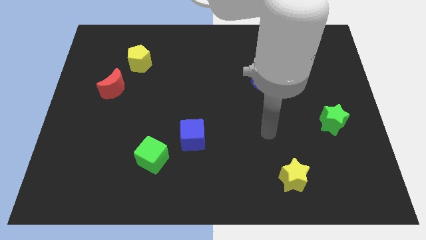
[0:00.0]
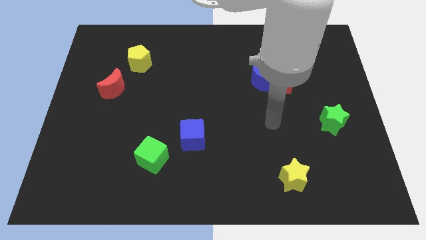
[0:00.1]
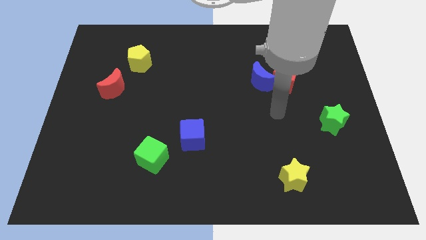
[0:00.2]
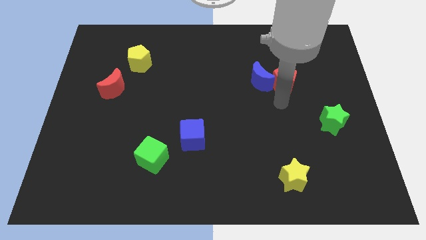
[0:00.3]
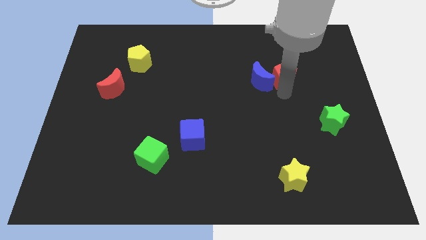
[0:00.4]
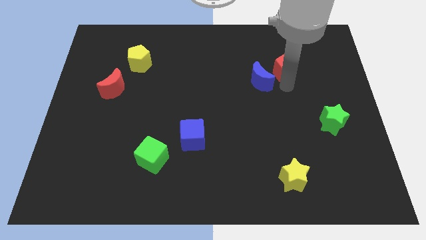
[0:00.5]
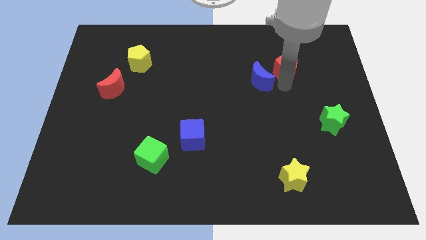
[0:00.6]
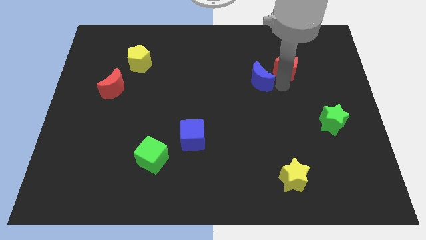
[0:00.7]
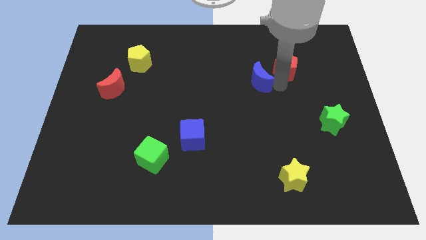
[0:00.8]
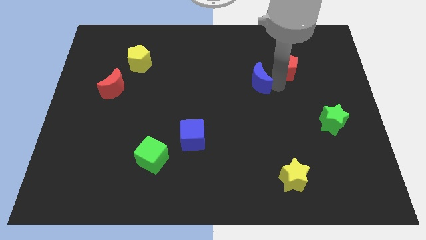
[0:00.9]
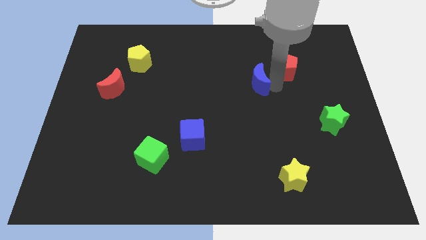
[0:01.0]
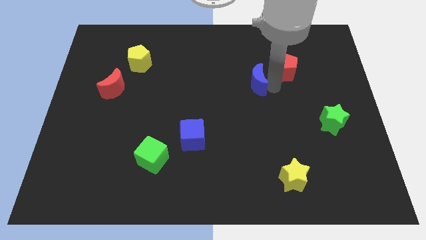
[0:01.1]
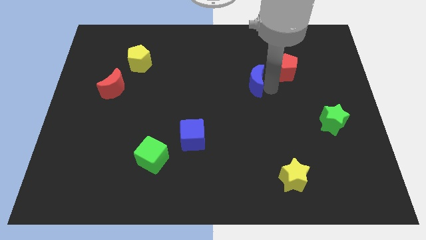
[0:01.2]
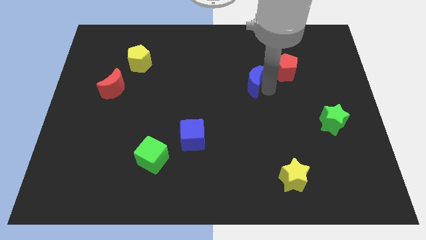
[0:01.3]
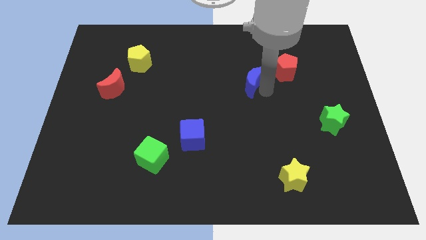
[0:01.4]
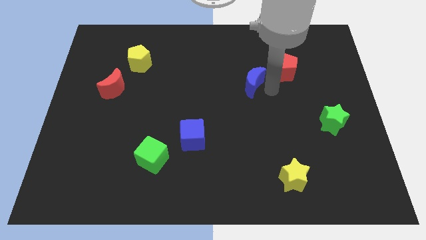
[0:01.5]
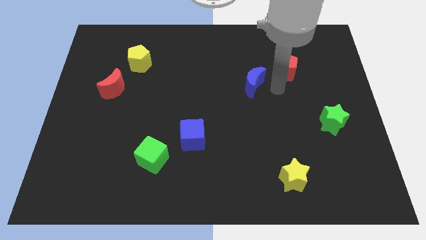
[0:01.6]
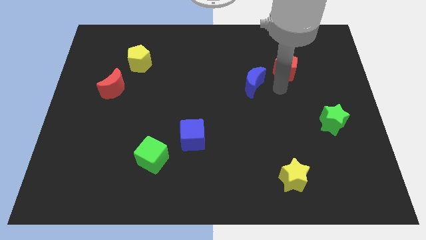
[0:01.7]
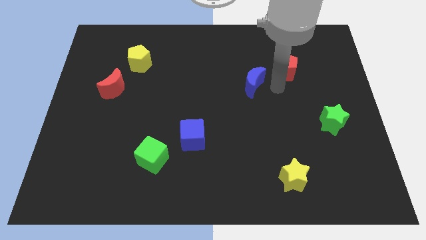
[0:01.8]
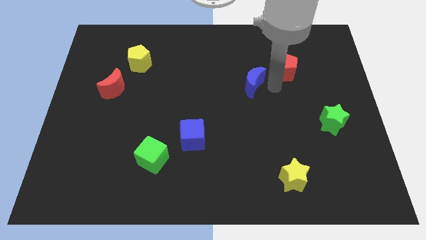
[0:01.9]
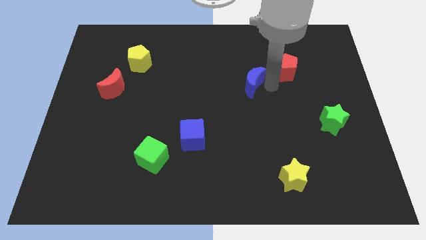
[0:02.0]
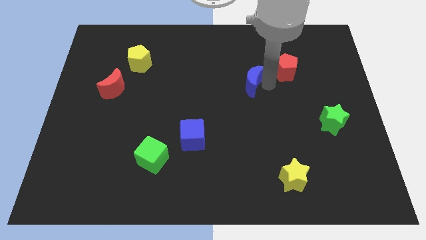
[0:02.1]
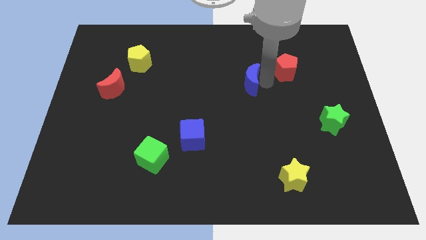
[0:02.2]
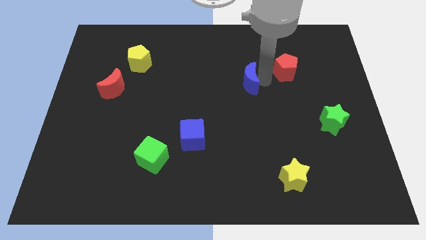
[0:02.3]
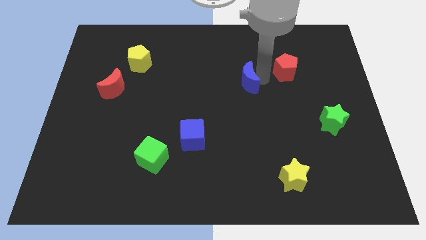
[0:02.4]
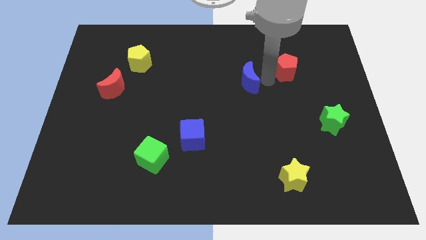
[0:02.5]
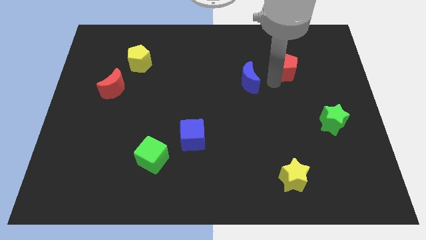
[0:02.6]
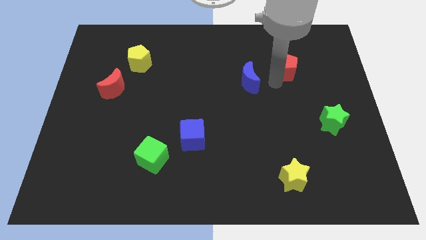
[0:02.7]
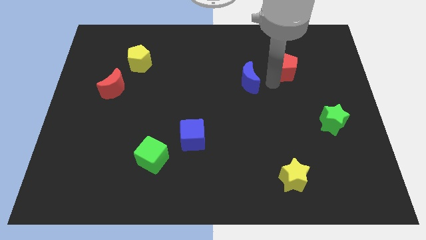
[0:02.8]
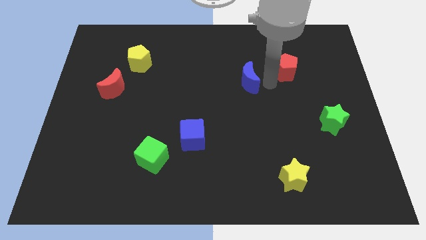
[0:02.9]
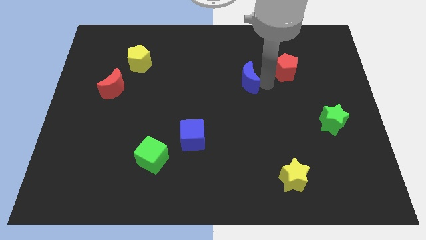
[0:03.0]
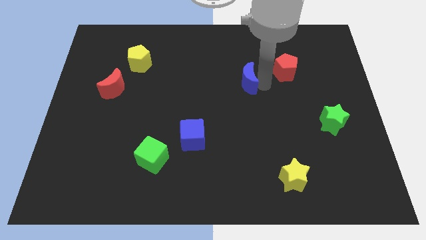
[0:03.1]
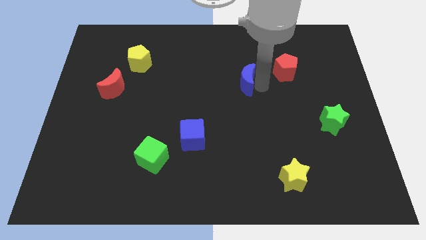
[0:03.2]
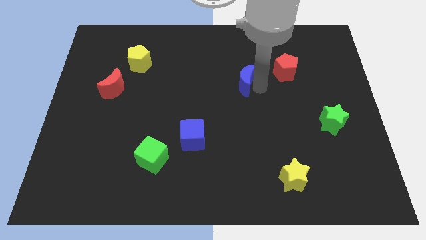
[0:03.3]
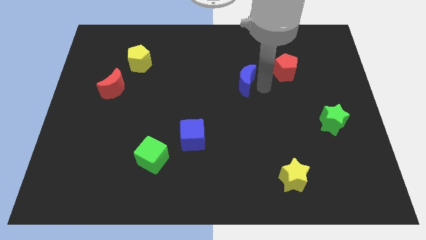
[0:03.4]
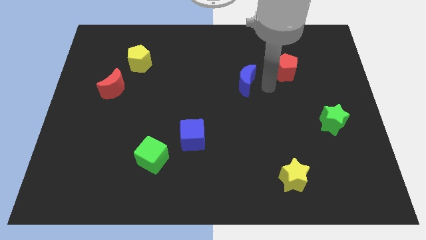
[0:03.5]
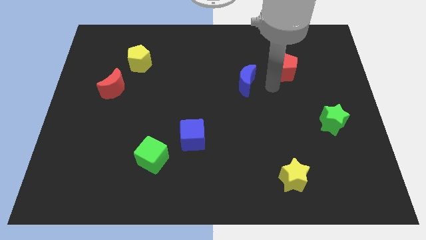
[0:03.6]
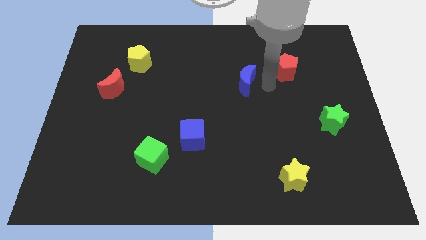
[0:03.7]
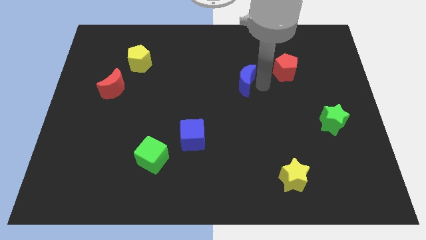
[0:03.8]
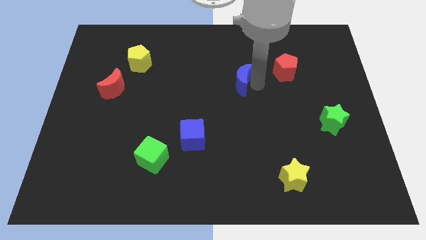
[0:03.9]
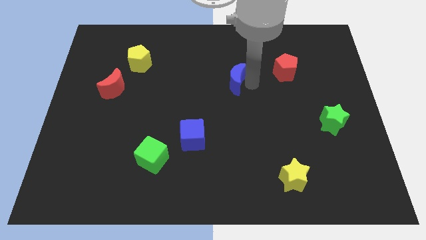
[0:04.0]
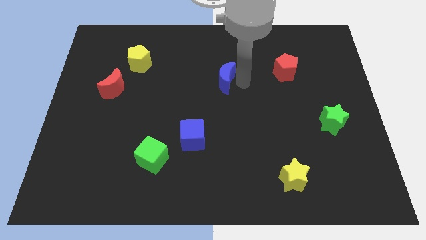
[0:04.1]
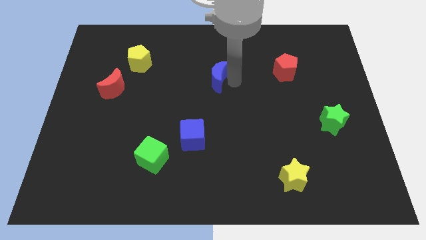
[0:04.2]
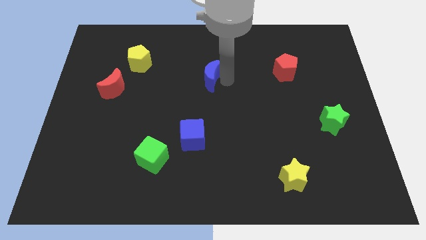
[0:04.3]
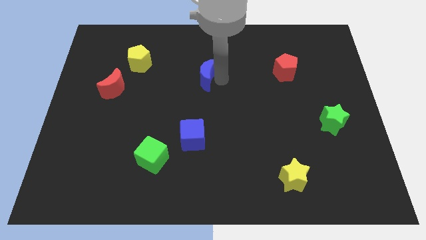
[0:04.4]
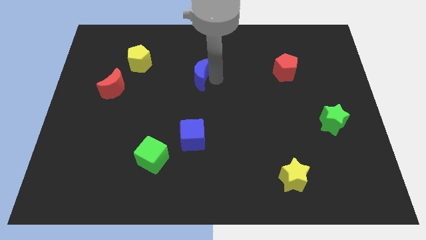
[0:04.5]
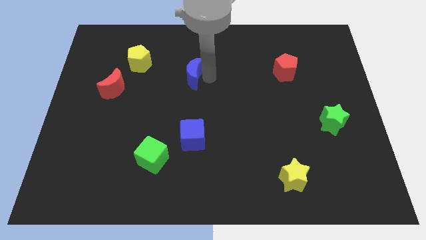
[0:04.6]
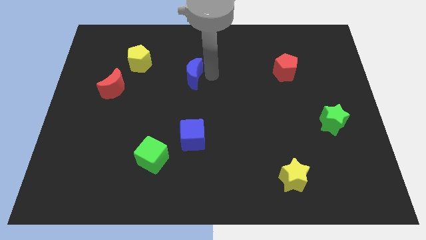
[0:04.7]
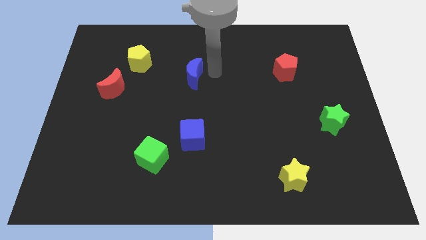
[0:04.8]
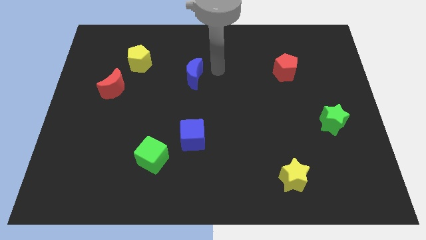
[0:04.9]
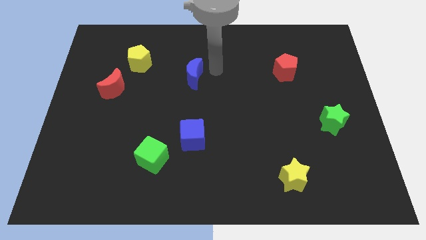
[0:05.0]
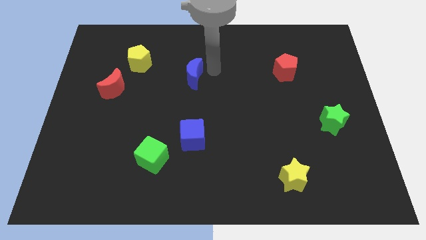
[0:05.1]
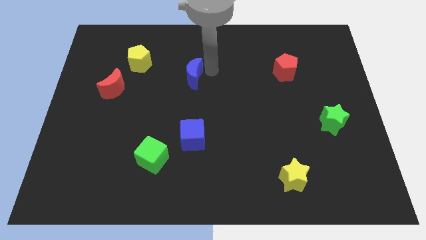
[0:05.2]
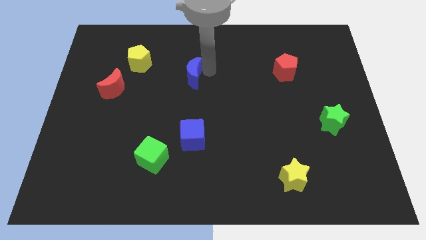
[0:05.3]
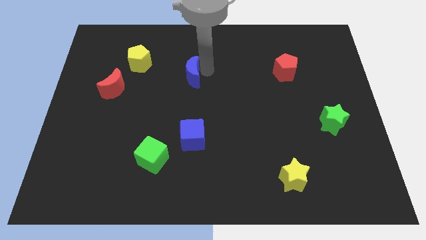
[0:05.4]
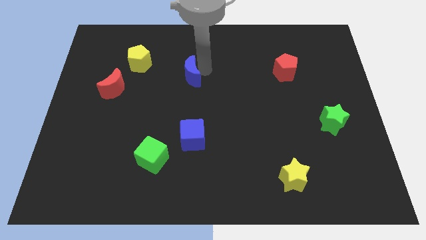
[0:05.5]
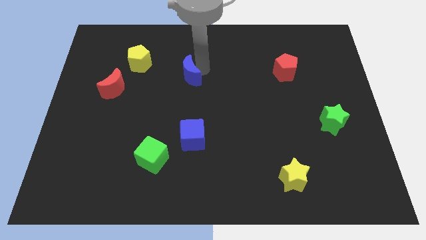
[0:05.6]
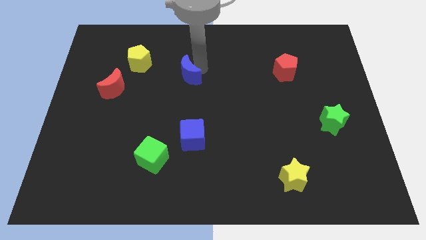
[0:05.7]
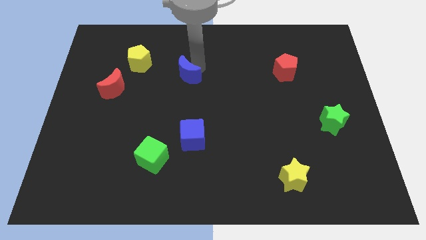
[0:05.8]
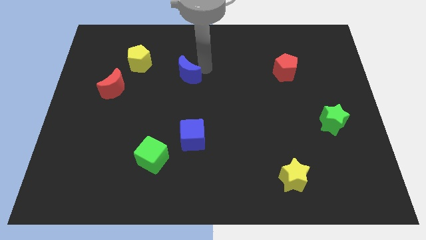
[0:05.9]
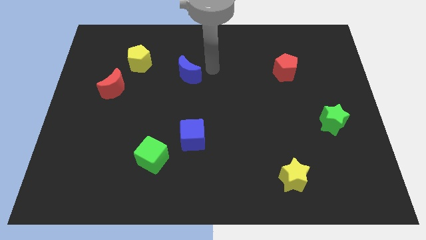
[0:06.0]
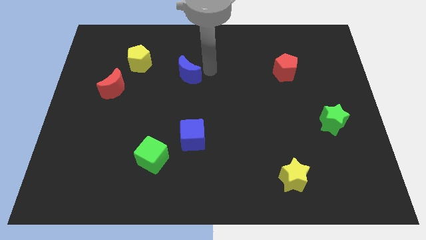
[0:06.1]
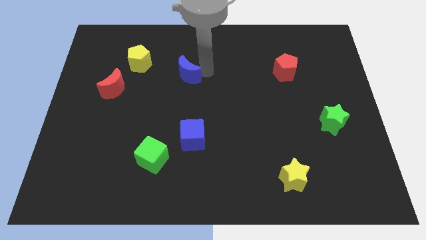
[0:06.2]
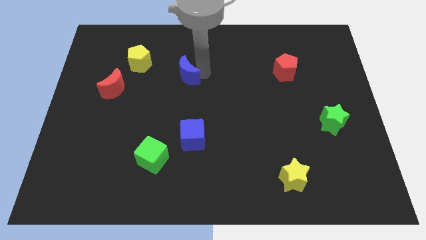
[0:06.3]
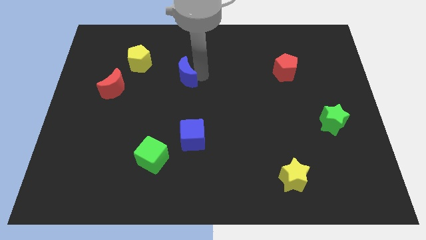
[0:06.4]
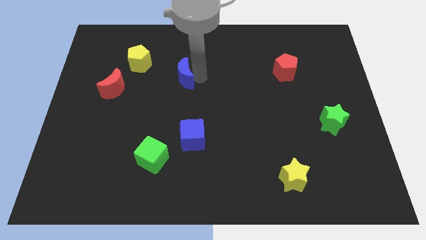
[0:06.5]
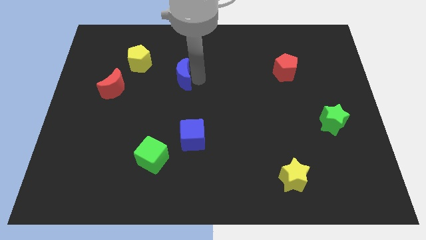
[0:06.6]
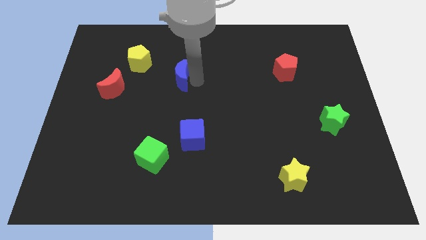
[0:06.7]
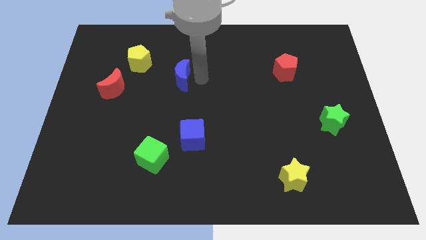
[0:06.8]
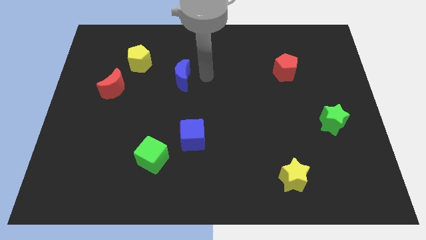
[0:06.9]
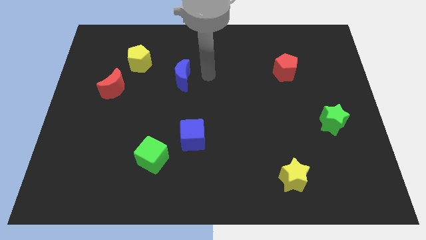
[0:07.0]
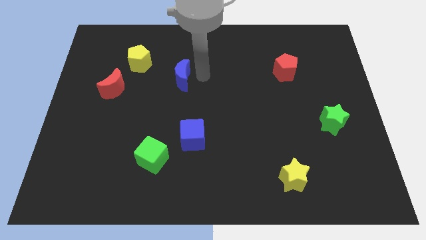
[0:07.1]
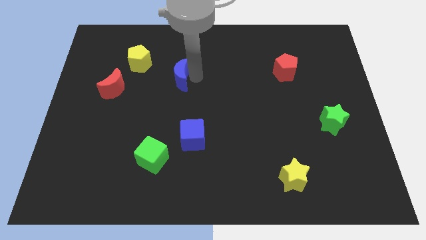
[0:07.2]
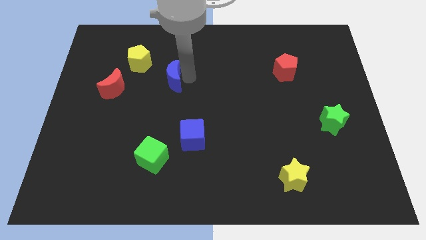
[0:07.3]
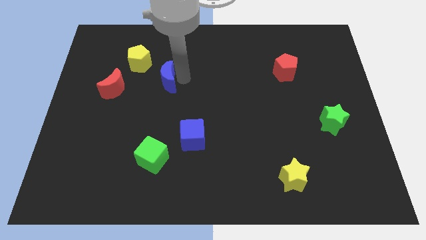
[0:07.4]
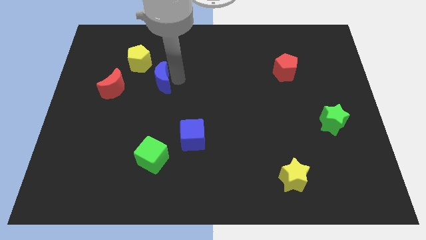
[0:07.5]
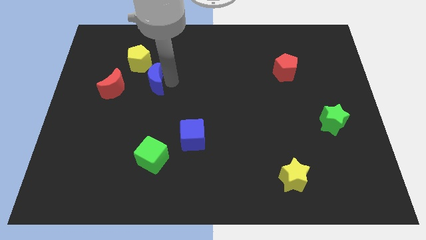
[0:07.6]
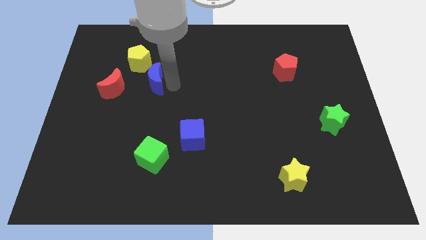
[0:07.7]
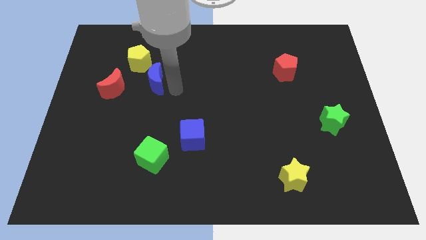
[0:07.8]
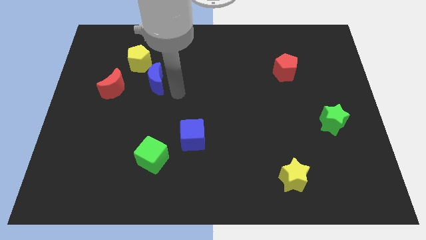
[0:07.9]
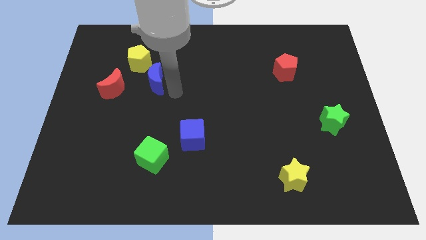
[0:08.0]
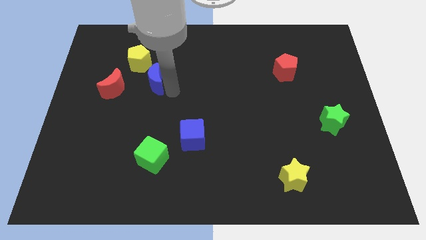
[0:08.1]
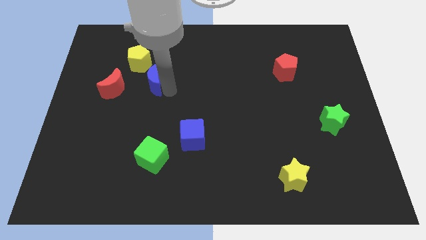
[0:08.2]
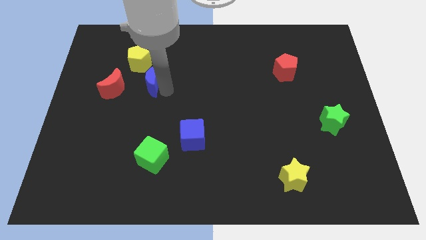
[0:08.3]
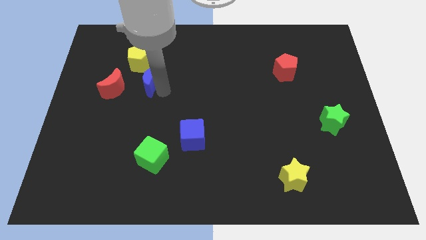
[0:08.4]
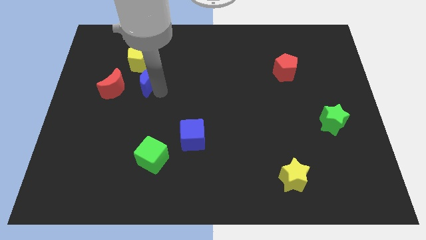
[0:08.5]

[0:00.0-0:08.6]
push the blue moon to the top right of the red moon
